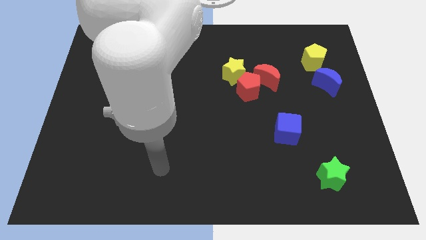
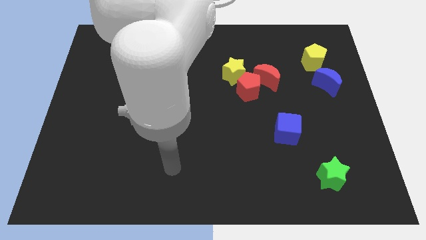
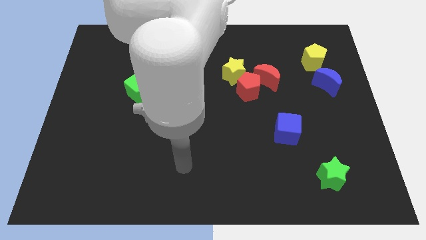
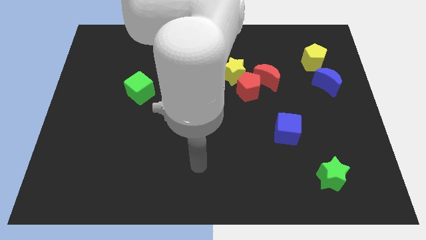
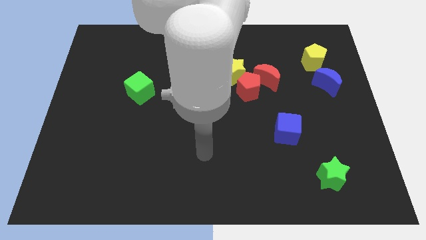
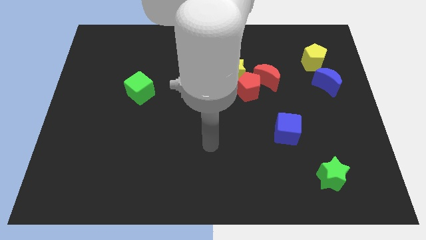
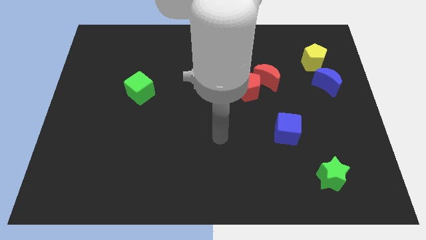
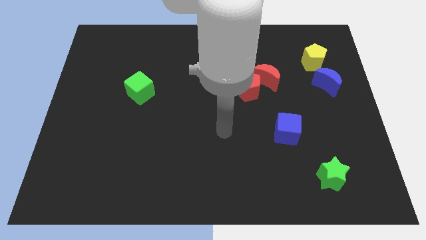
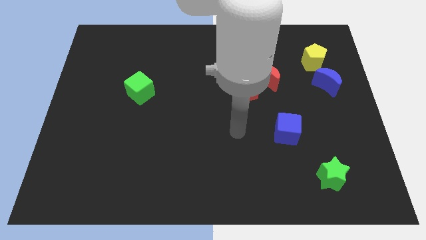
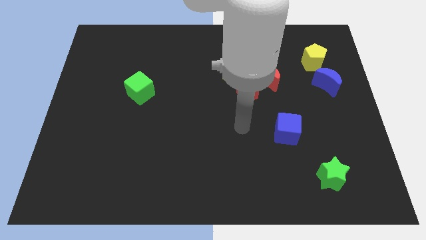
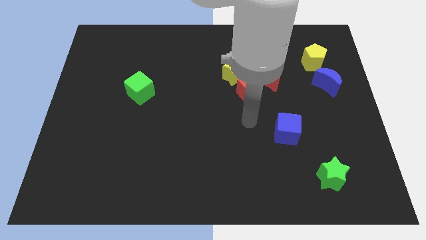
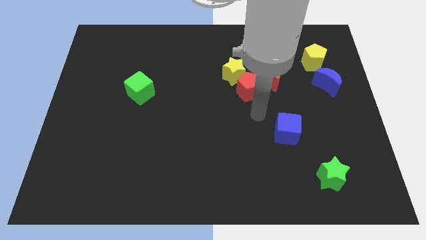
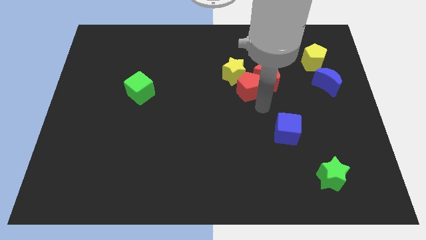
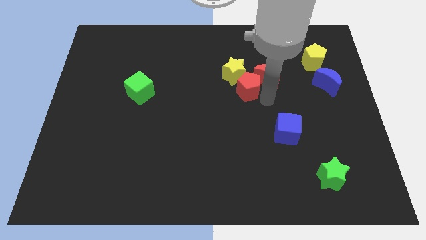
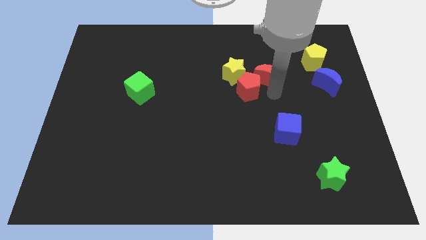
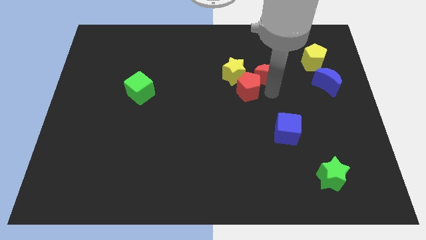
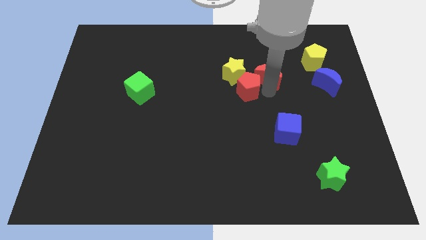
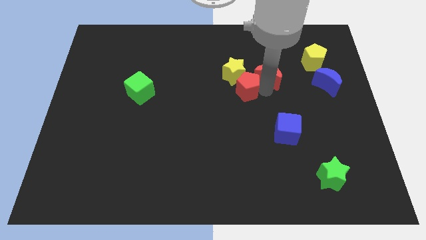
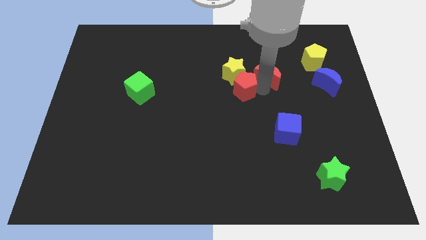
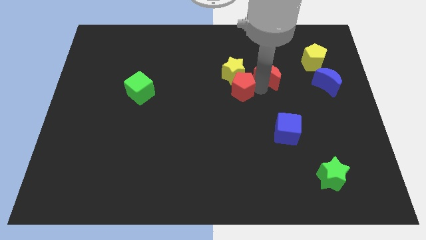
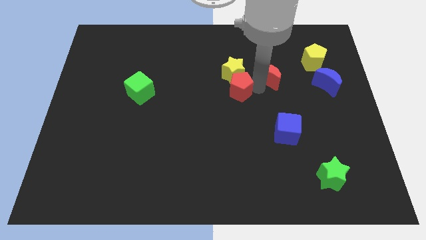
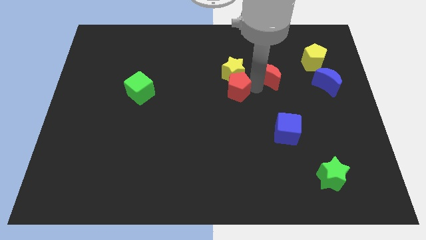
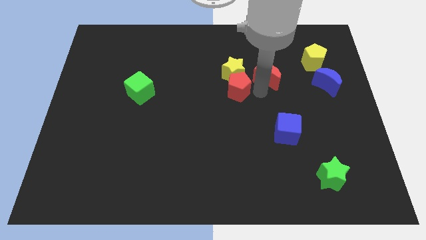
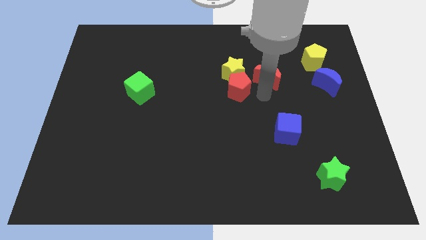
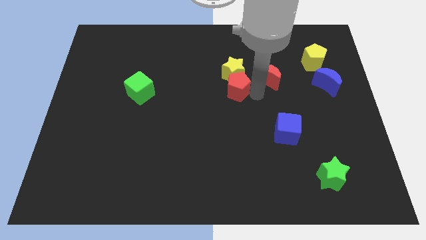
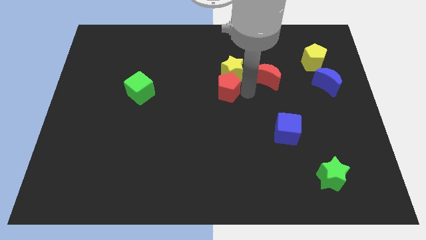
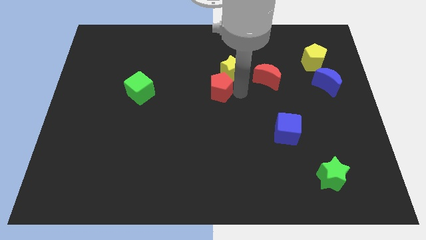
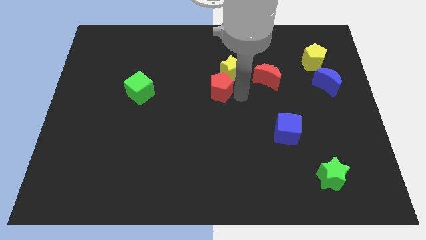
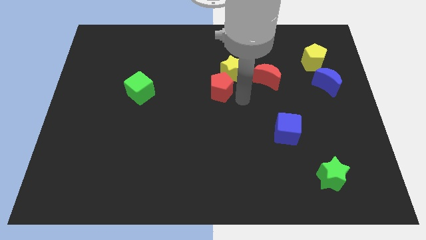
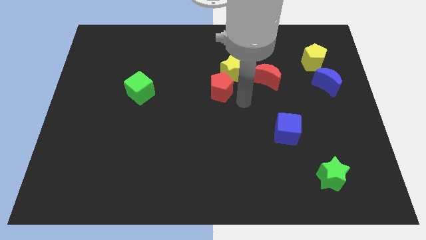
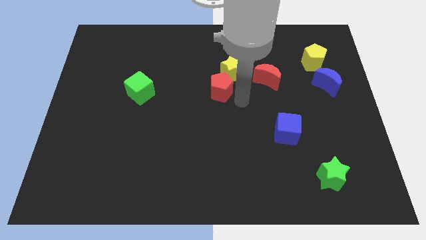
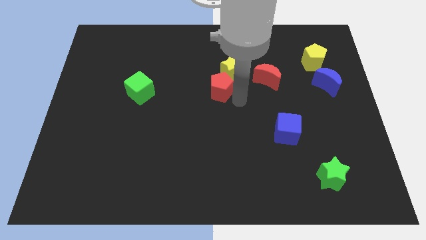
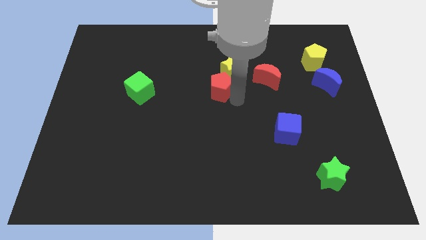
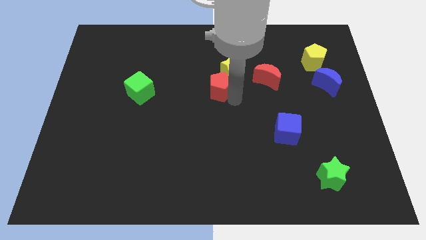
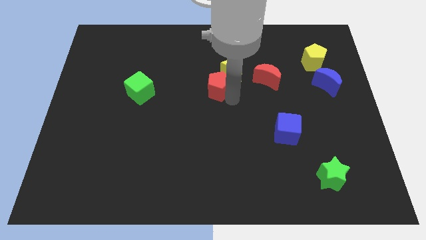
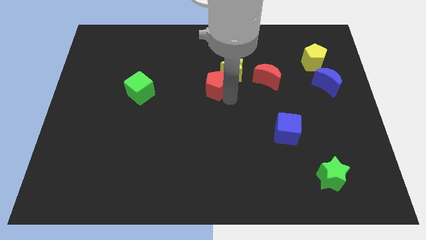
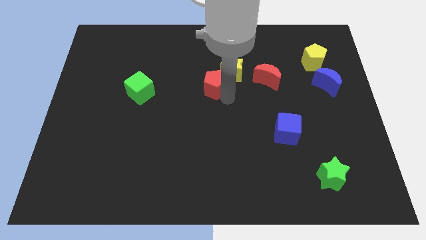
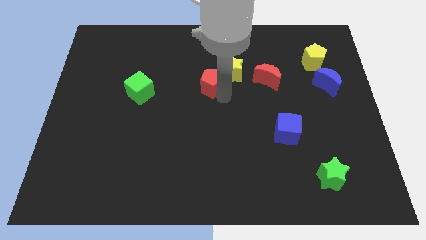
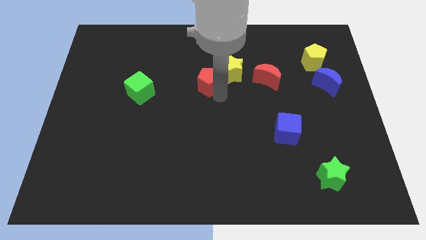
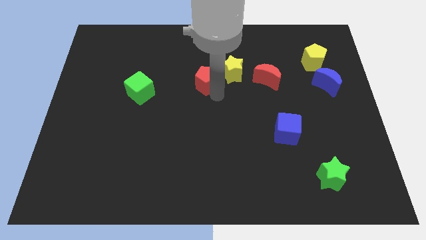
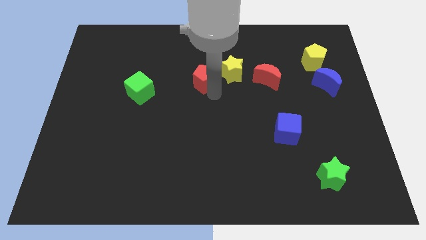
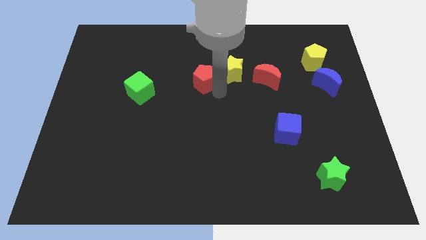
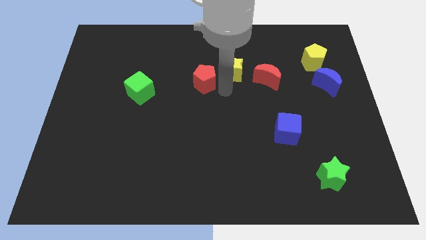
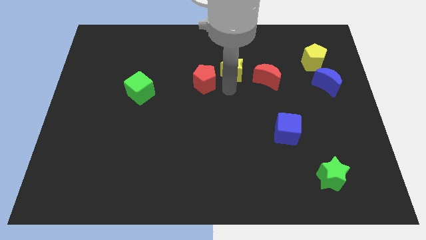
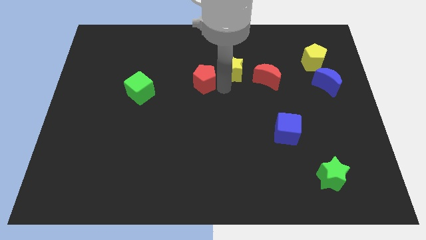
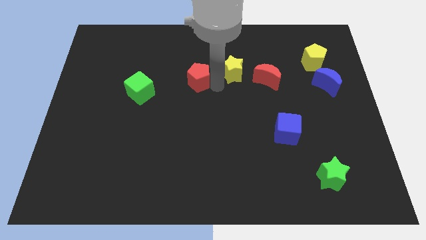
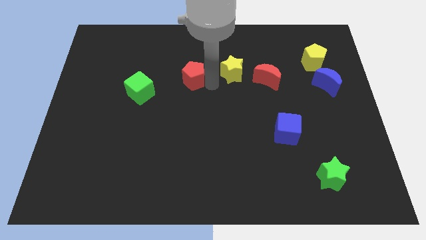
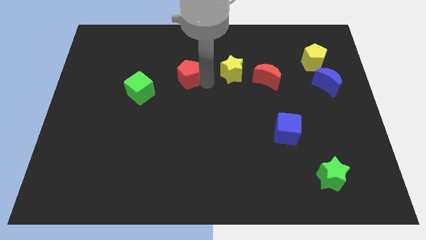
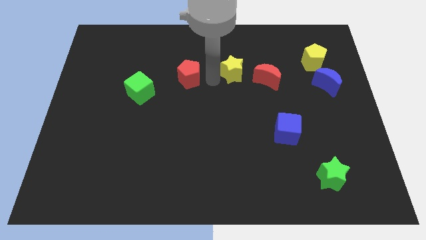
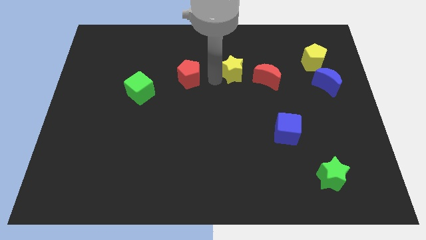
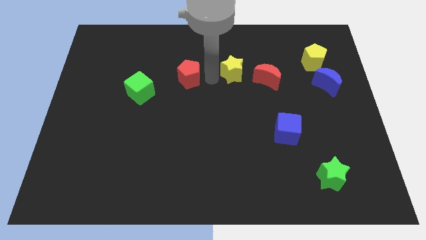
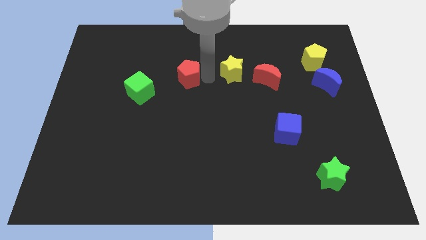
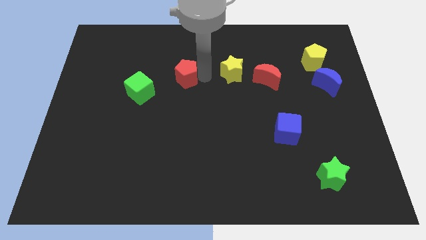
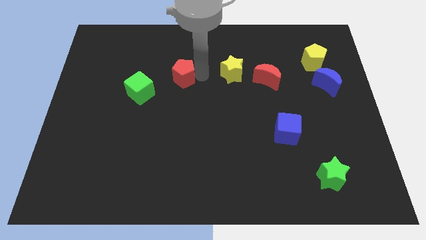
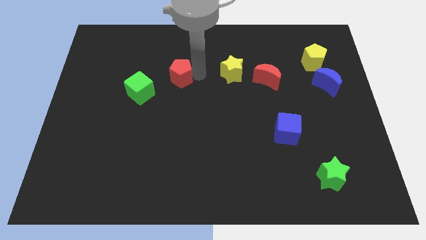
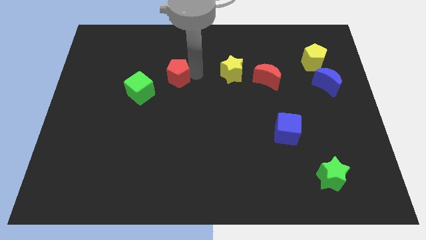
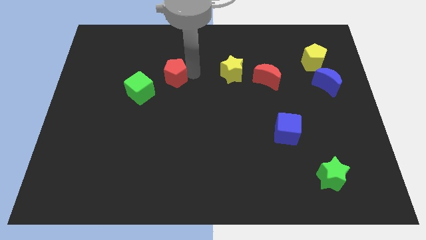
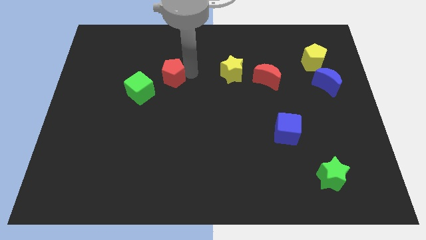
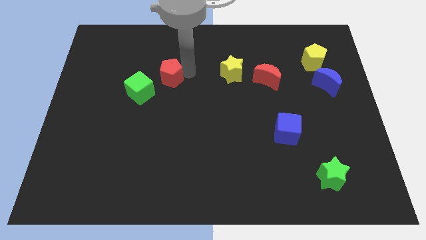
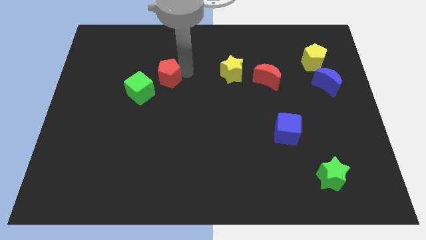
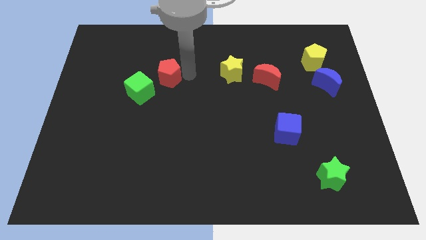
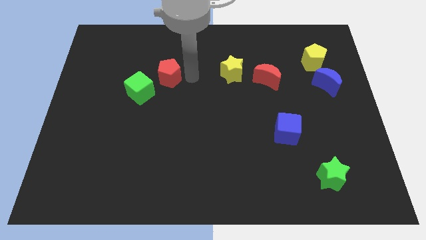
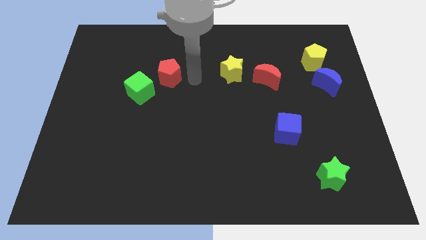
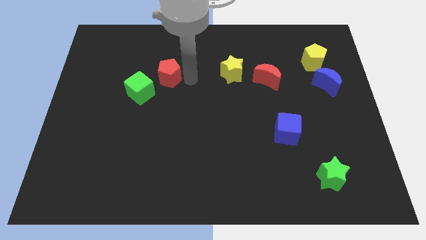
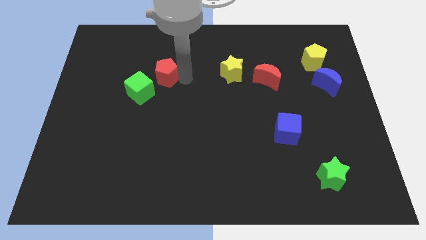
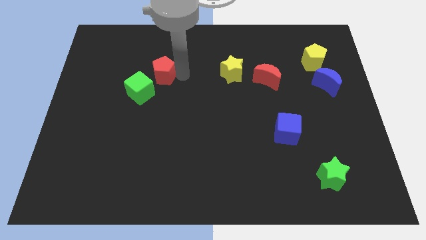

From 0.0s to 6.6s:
push the red pentagon to the left

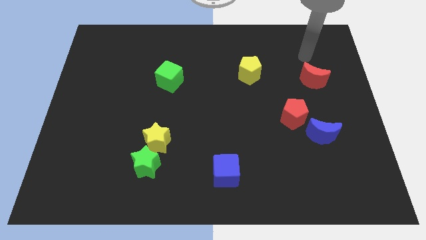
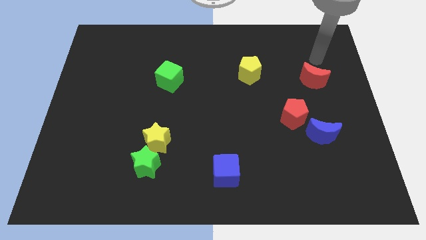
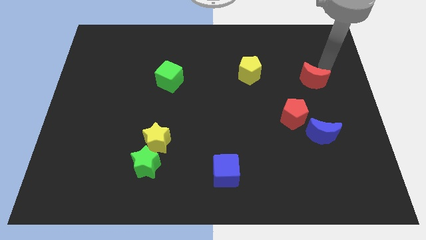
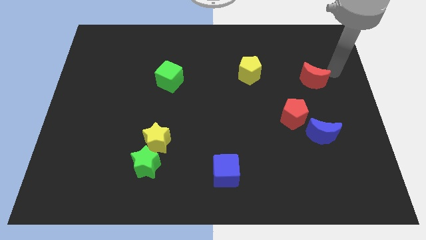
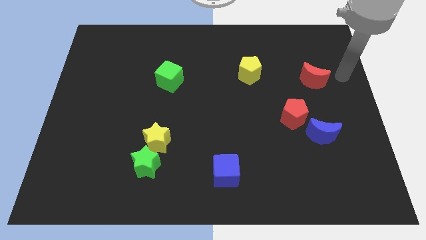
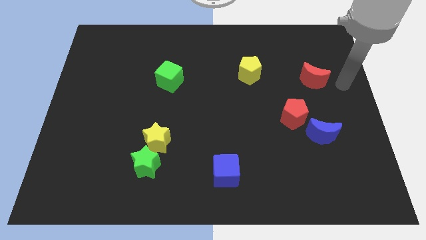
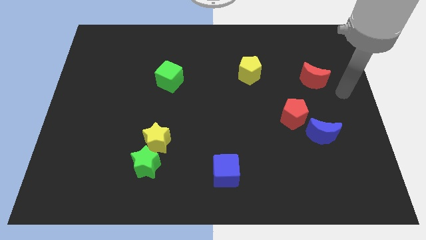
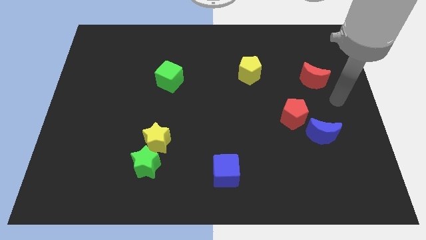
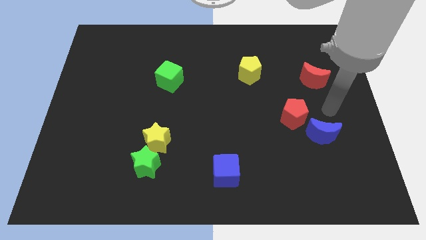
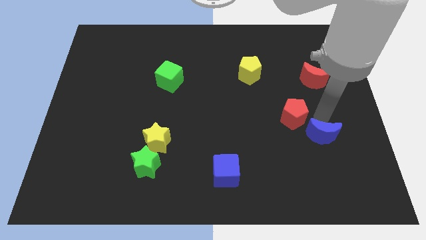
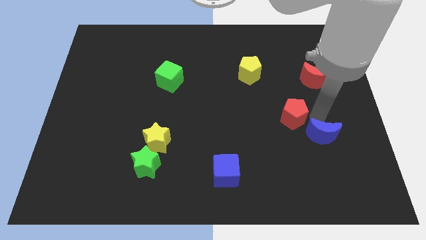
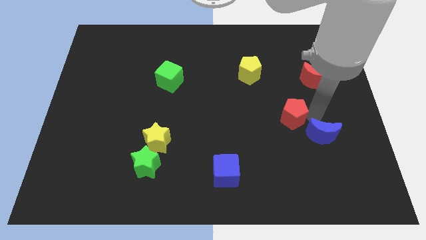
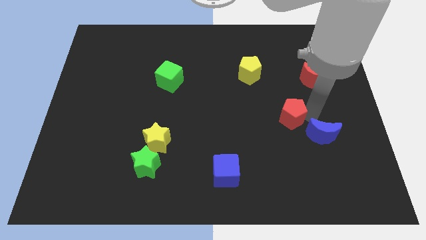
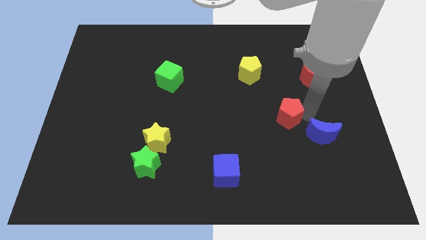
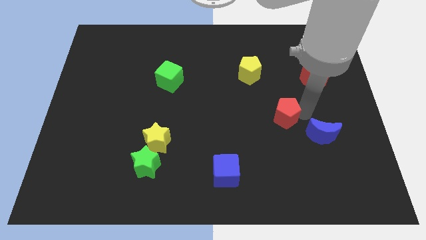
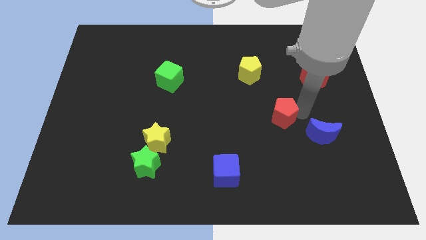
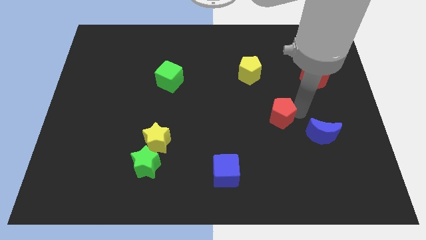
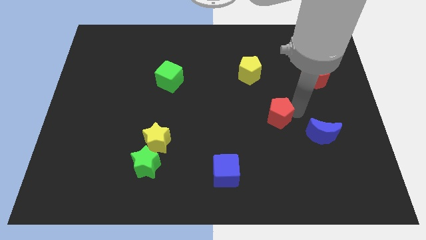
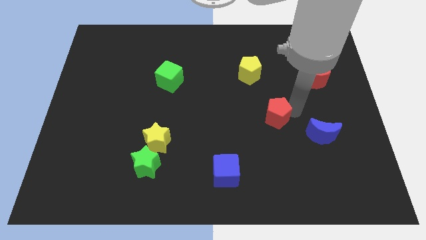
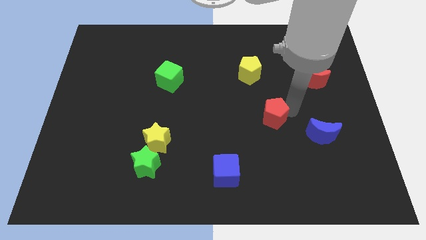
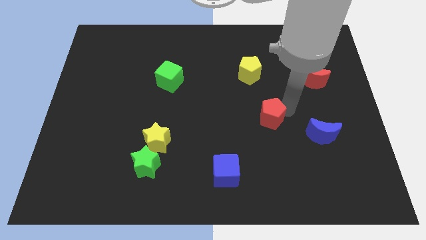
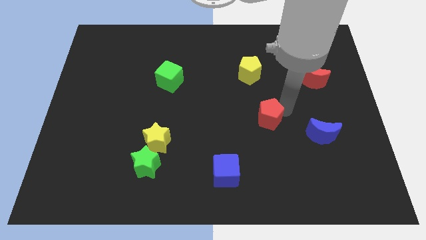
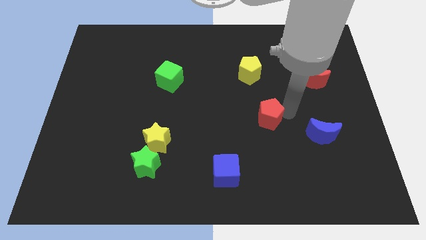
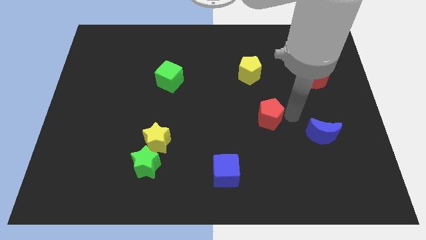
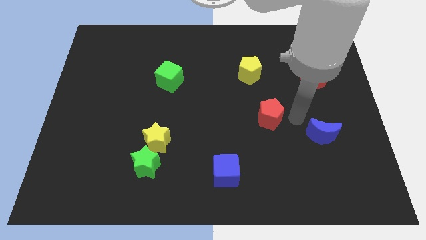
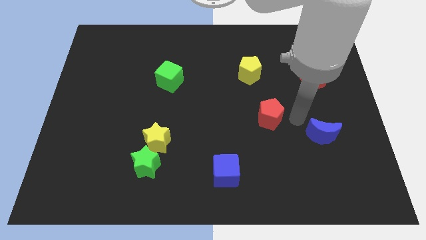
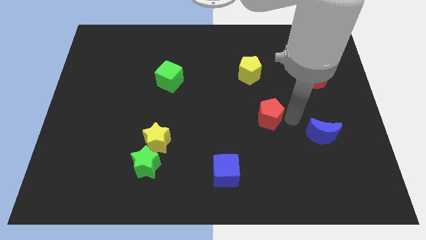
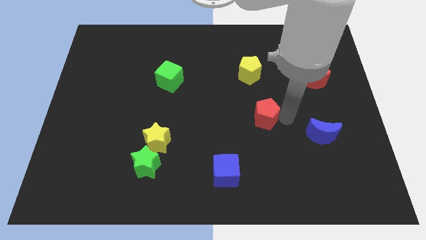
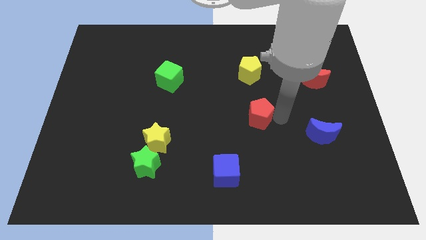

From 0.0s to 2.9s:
move the red pentagon a bit left
